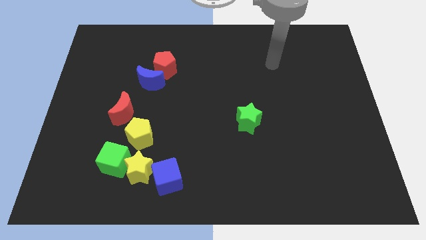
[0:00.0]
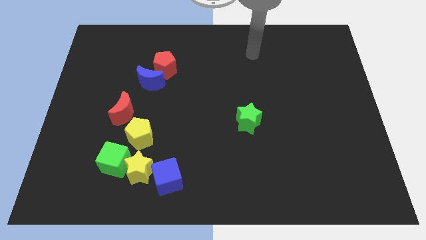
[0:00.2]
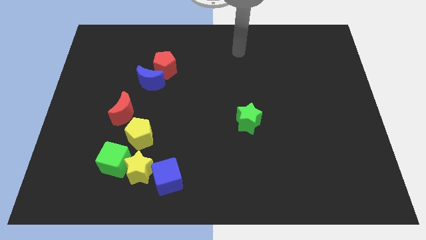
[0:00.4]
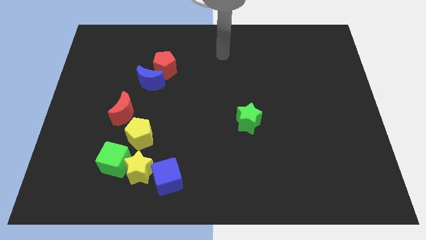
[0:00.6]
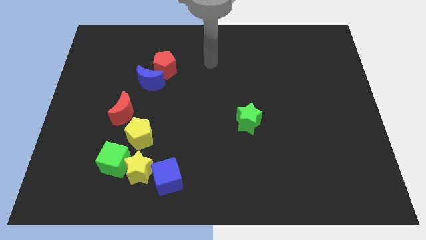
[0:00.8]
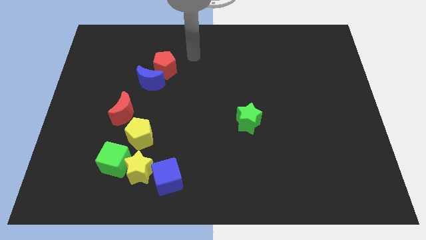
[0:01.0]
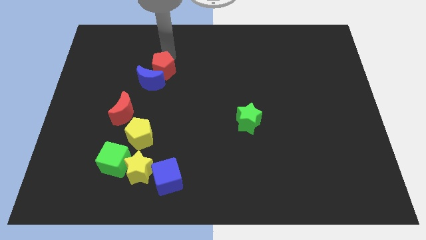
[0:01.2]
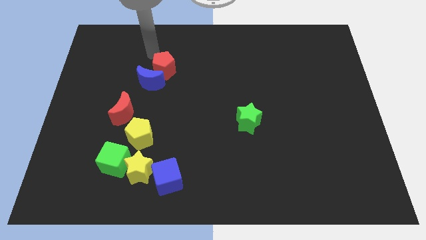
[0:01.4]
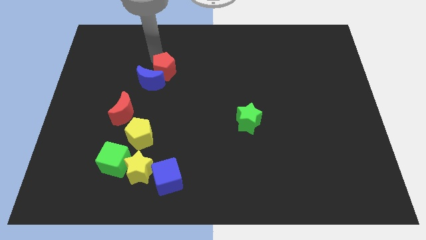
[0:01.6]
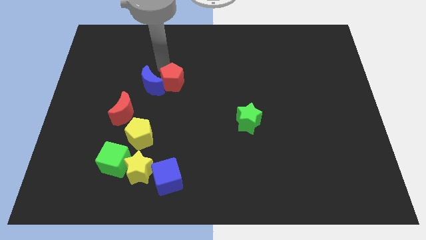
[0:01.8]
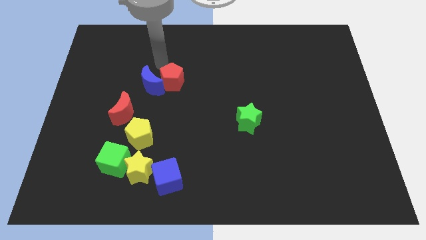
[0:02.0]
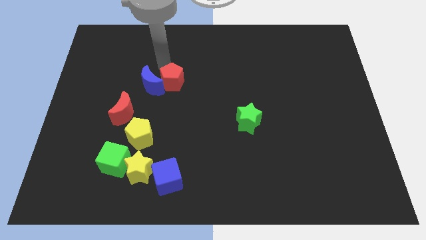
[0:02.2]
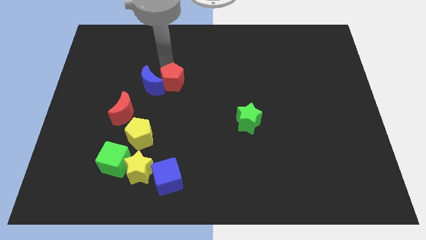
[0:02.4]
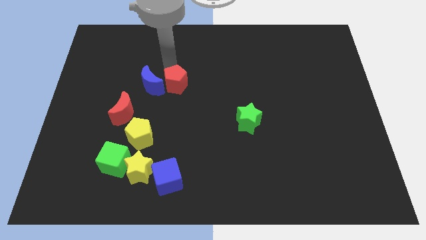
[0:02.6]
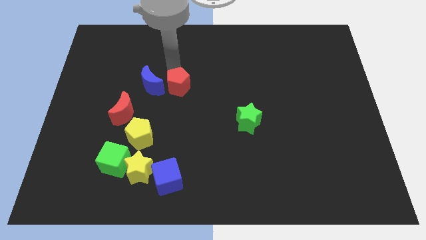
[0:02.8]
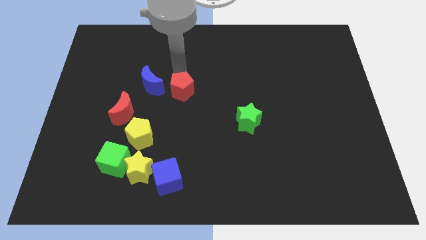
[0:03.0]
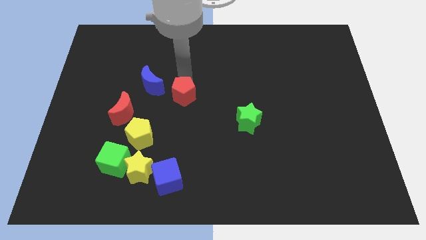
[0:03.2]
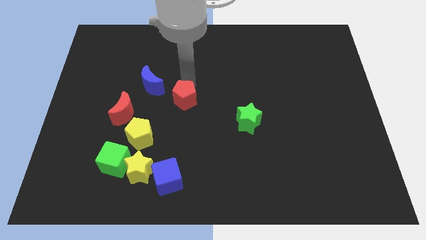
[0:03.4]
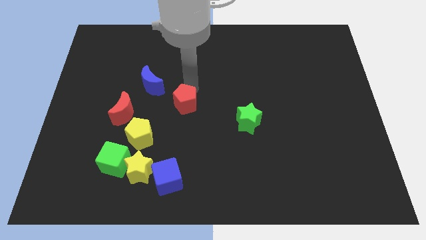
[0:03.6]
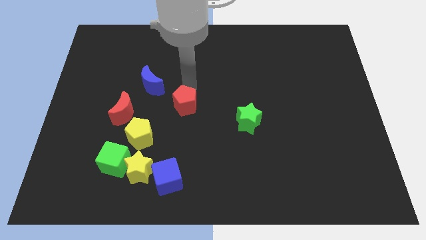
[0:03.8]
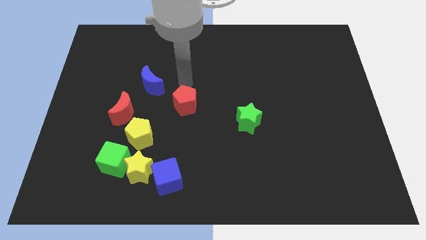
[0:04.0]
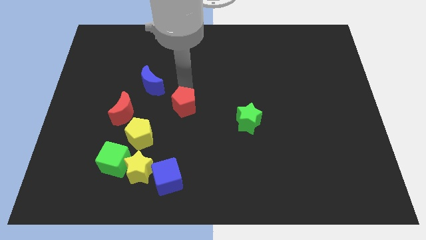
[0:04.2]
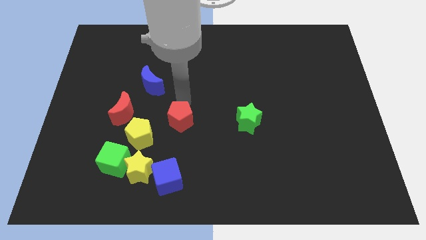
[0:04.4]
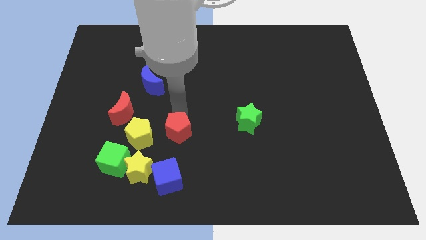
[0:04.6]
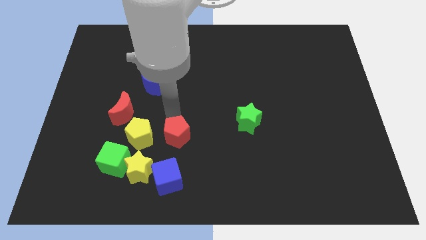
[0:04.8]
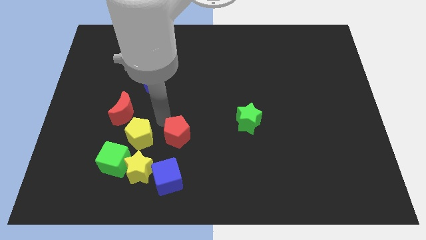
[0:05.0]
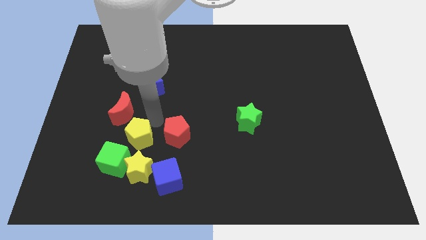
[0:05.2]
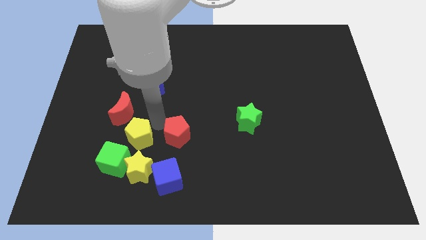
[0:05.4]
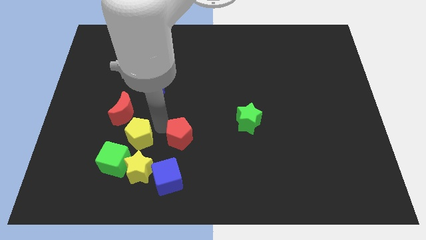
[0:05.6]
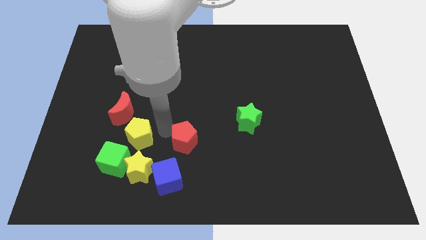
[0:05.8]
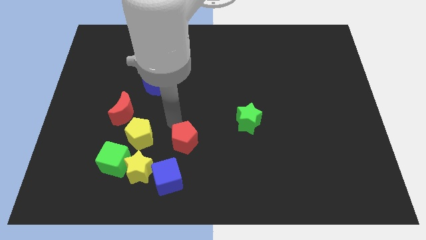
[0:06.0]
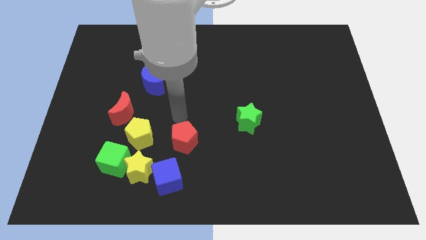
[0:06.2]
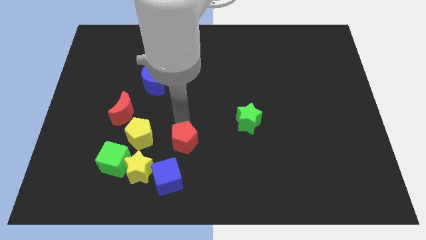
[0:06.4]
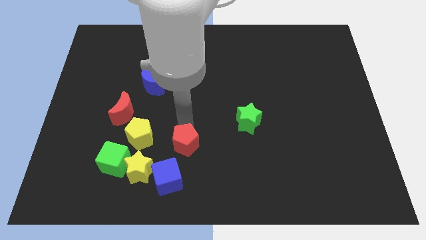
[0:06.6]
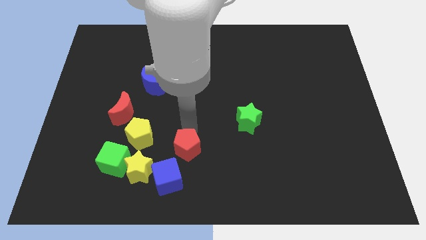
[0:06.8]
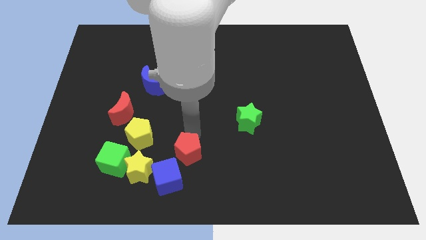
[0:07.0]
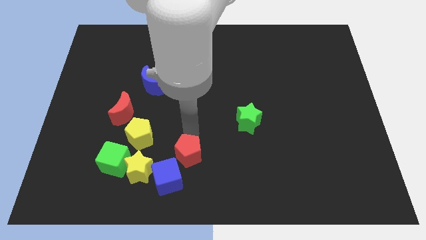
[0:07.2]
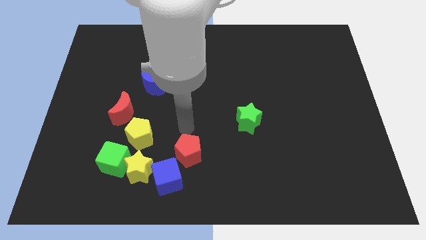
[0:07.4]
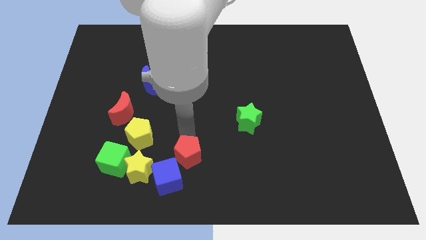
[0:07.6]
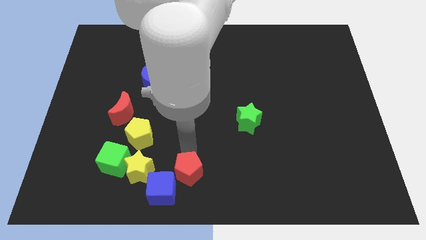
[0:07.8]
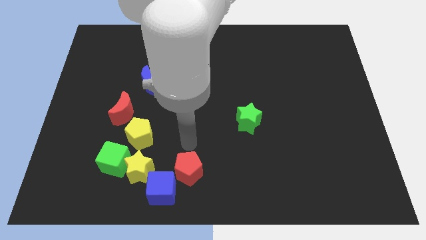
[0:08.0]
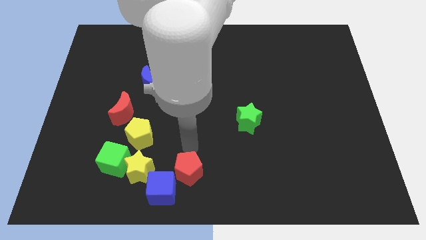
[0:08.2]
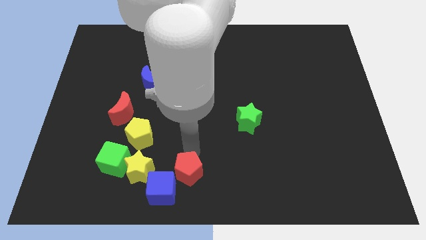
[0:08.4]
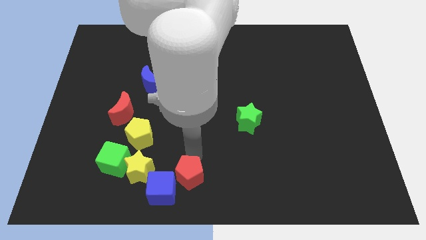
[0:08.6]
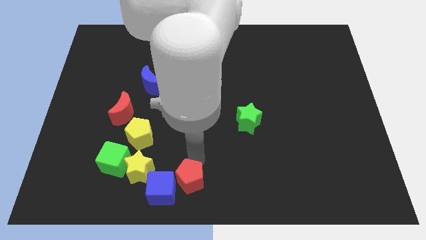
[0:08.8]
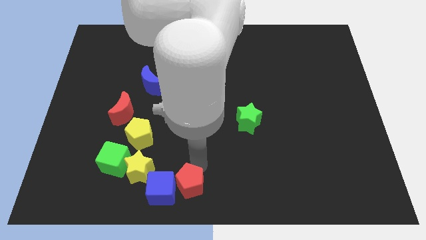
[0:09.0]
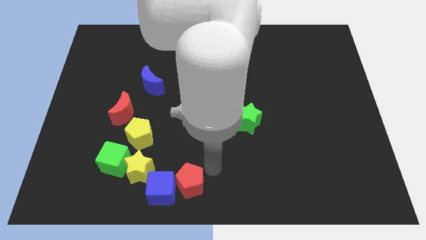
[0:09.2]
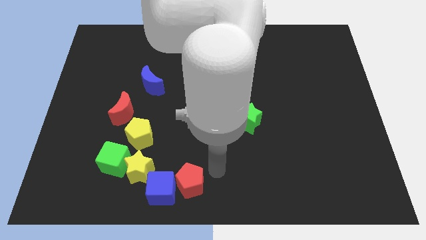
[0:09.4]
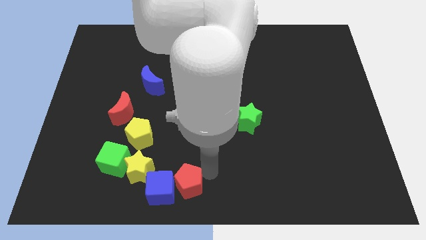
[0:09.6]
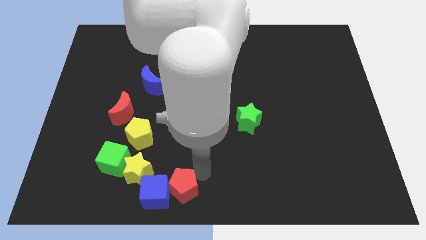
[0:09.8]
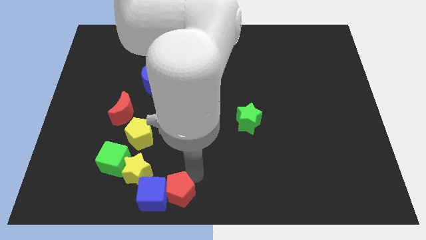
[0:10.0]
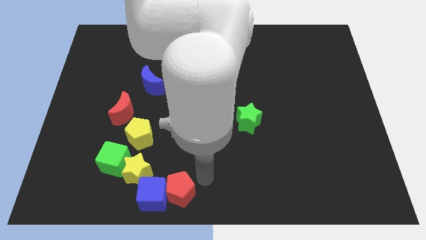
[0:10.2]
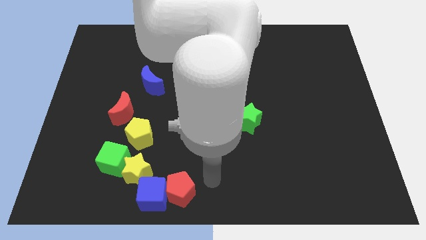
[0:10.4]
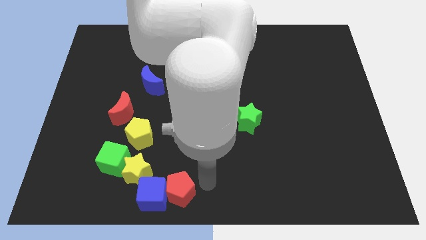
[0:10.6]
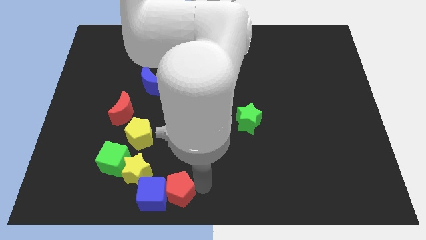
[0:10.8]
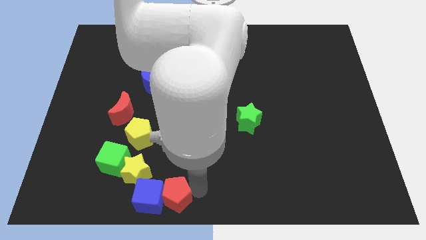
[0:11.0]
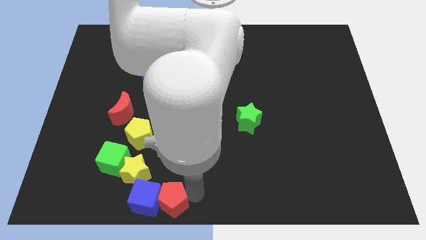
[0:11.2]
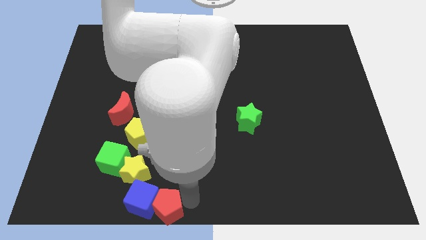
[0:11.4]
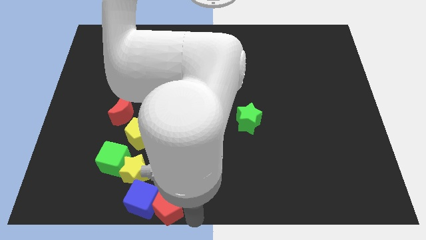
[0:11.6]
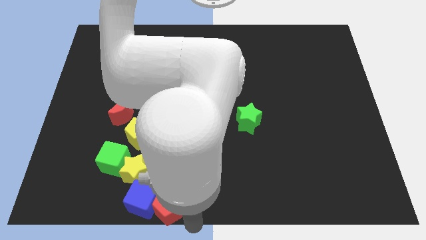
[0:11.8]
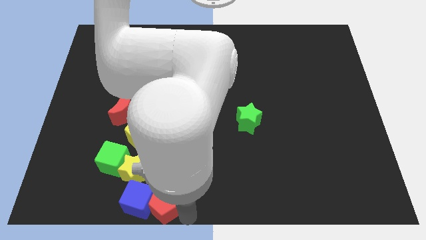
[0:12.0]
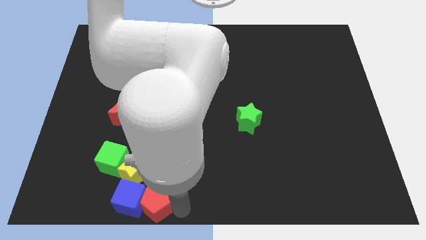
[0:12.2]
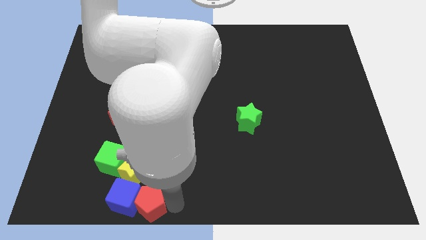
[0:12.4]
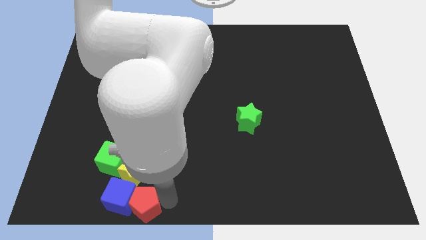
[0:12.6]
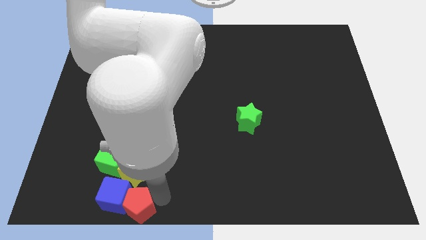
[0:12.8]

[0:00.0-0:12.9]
put the red pentagon below the yellow pentagon

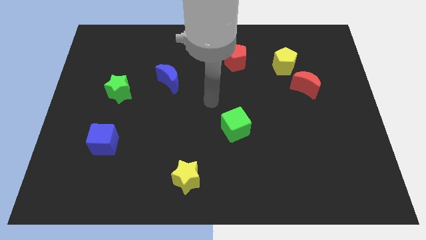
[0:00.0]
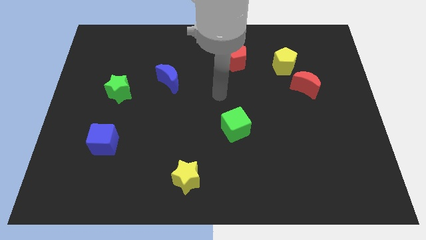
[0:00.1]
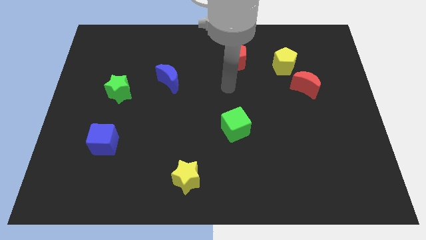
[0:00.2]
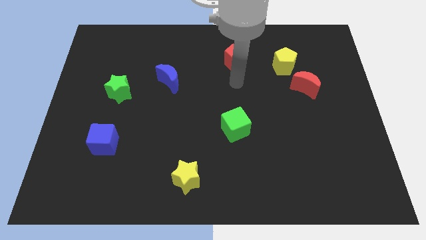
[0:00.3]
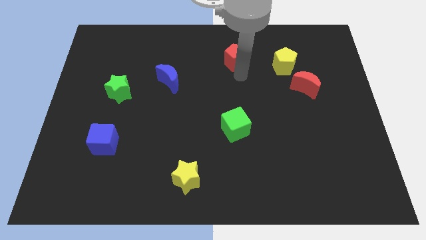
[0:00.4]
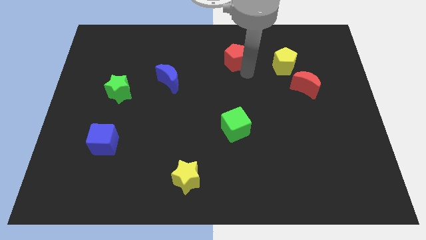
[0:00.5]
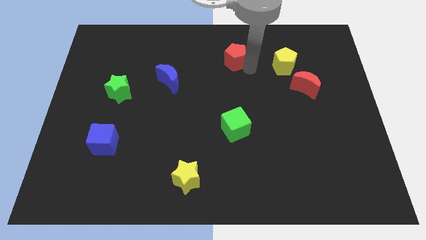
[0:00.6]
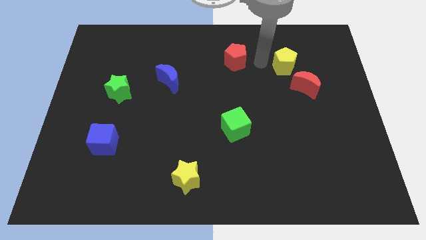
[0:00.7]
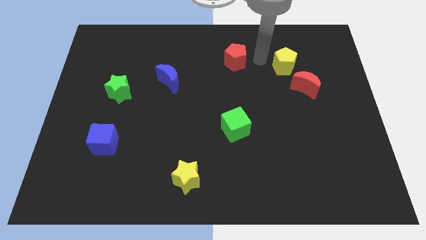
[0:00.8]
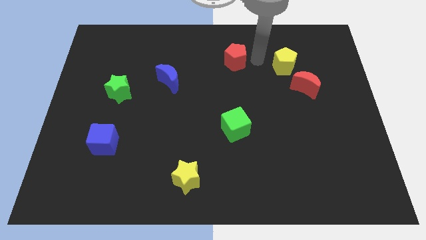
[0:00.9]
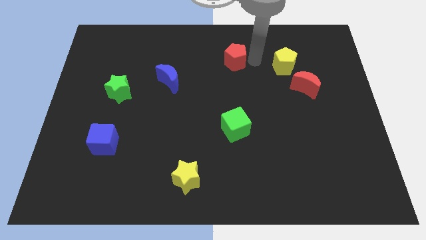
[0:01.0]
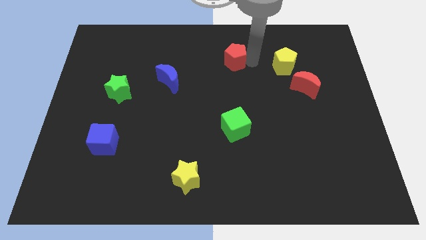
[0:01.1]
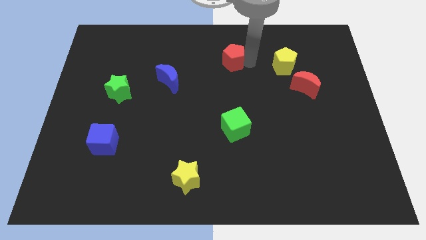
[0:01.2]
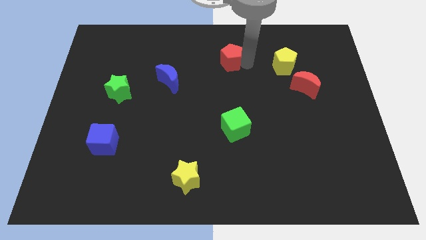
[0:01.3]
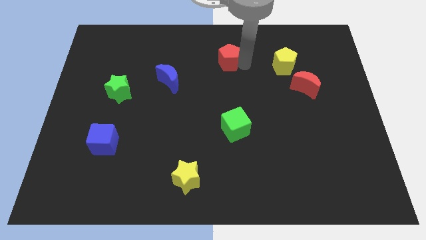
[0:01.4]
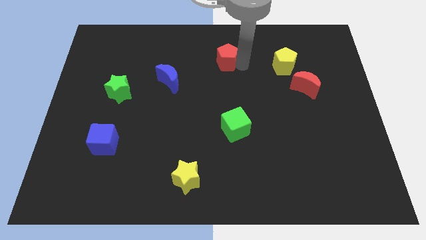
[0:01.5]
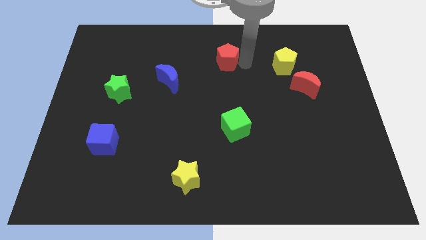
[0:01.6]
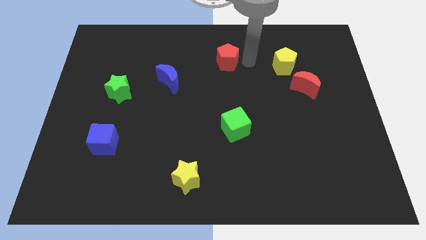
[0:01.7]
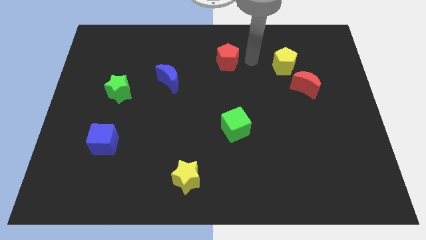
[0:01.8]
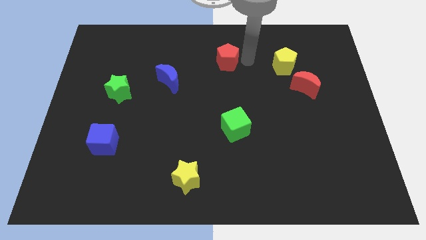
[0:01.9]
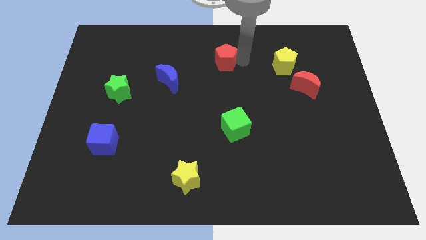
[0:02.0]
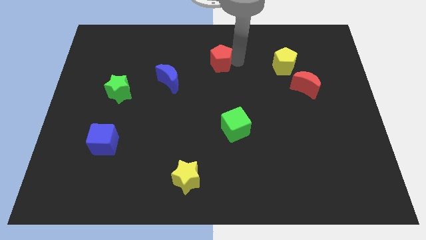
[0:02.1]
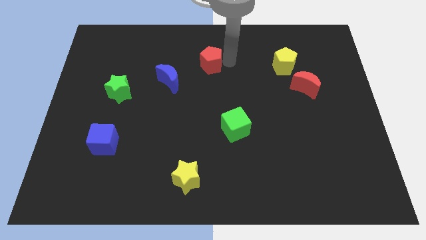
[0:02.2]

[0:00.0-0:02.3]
move the red pentagon to the top right side of the blue moon
